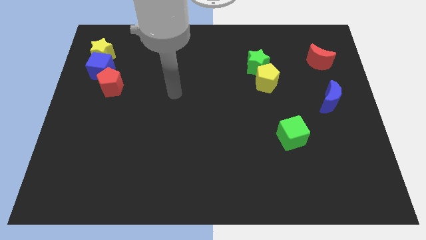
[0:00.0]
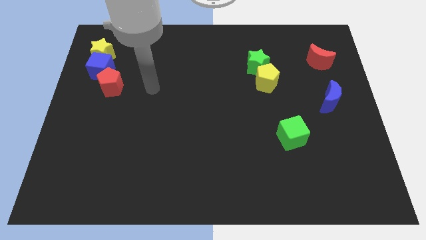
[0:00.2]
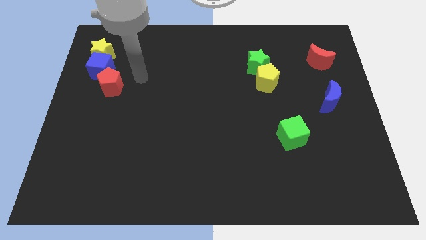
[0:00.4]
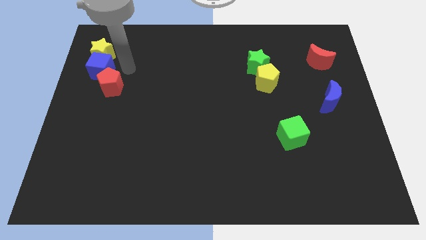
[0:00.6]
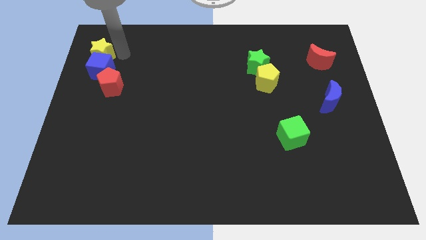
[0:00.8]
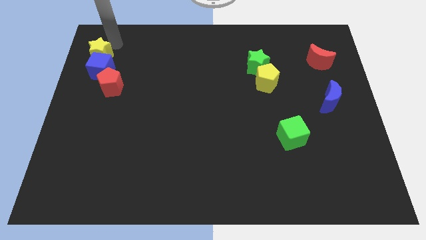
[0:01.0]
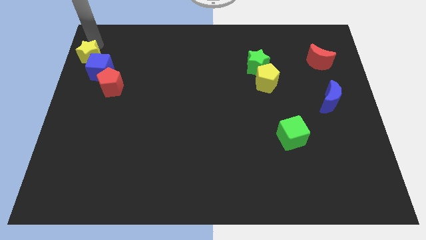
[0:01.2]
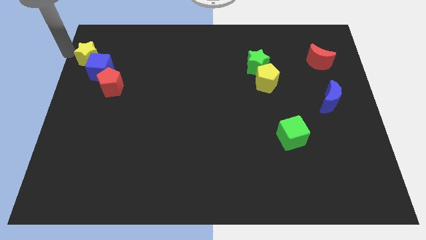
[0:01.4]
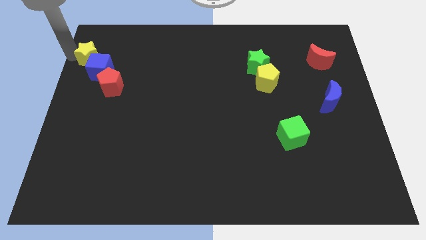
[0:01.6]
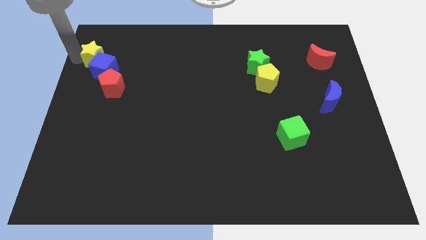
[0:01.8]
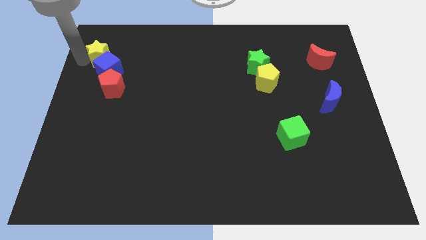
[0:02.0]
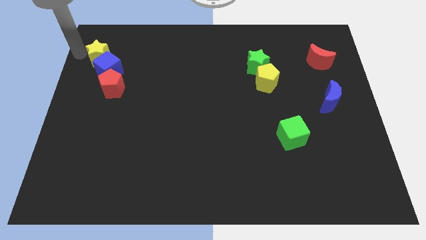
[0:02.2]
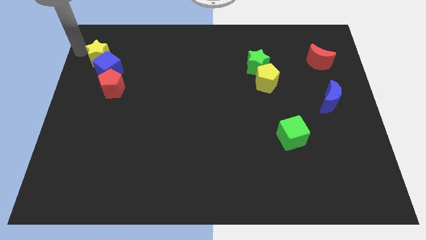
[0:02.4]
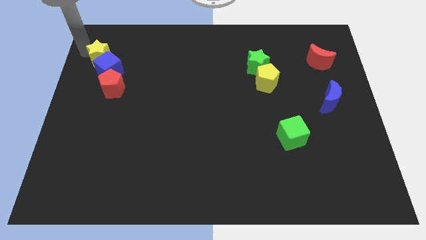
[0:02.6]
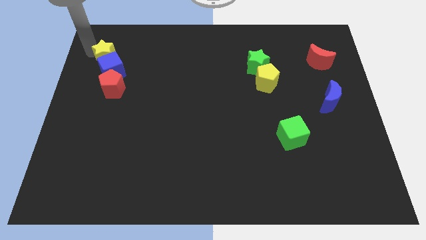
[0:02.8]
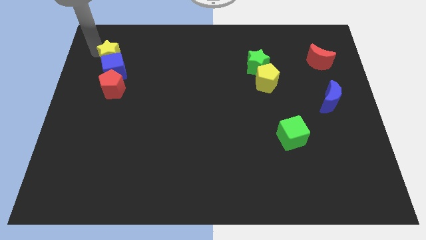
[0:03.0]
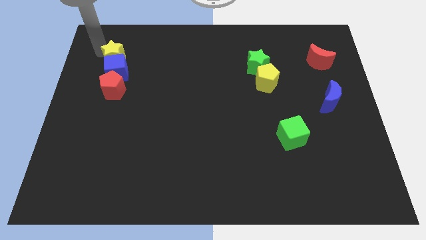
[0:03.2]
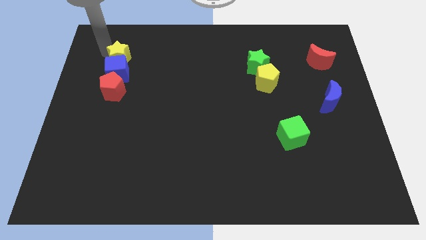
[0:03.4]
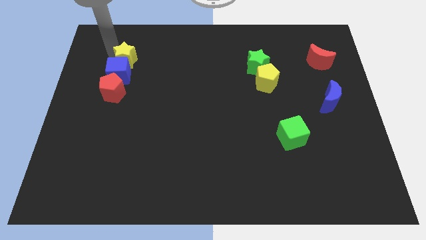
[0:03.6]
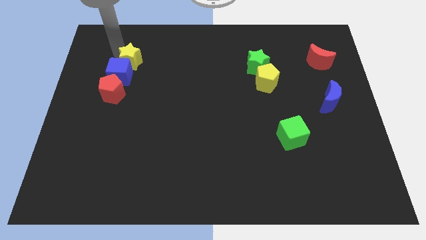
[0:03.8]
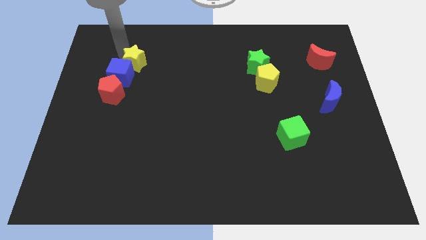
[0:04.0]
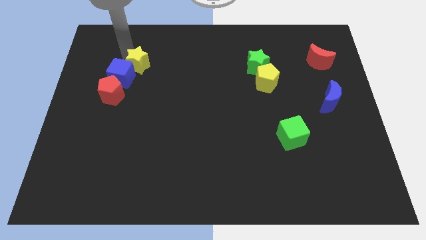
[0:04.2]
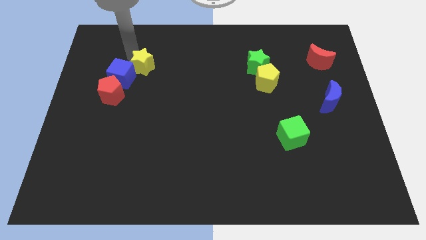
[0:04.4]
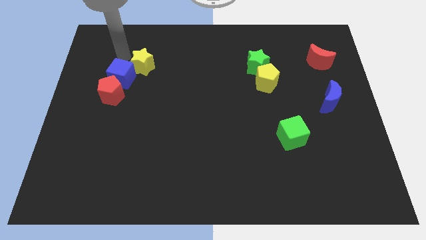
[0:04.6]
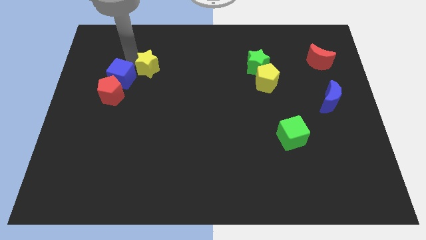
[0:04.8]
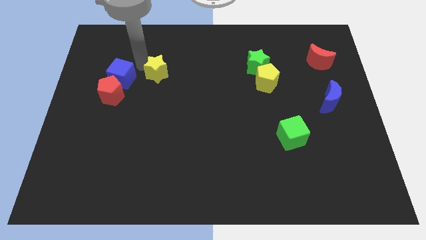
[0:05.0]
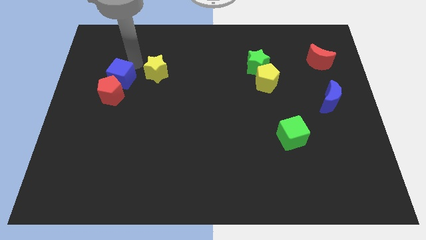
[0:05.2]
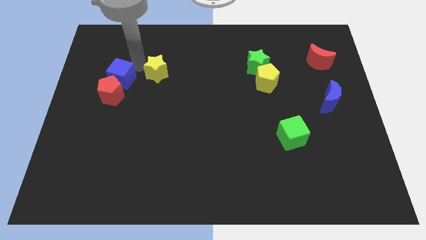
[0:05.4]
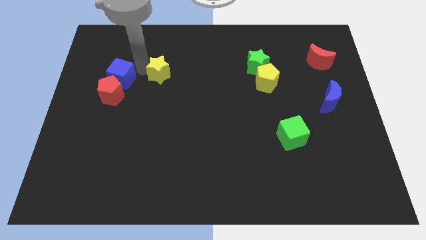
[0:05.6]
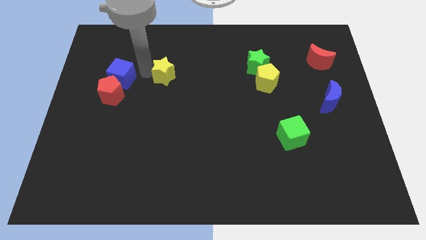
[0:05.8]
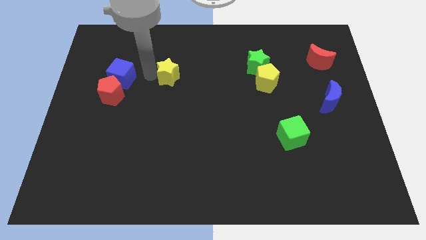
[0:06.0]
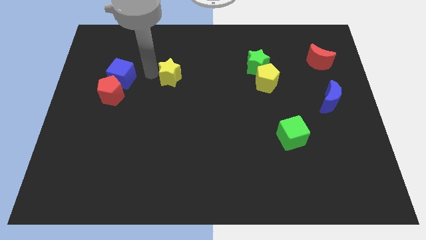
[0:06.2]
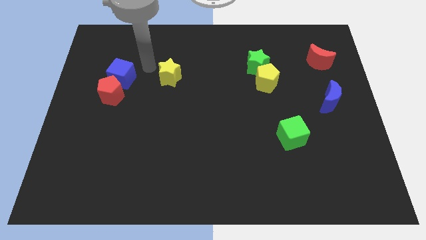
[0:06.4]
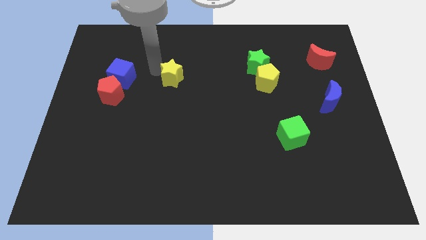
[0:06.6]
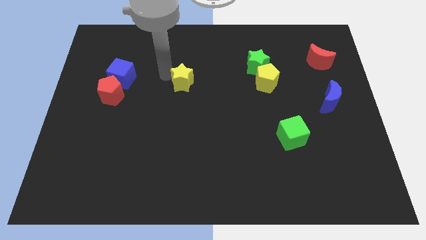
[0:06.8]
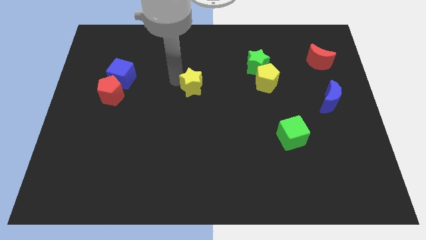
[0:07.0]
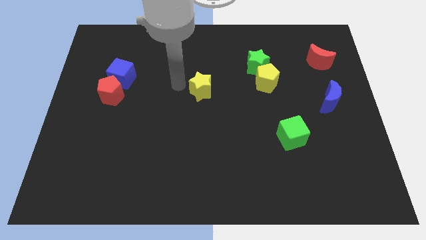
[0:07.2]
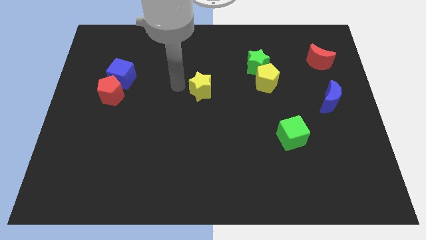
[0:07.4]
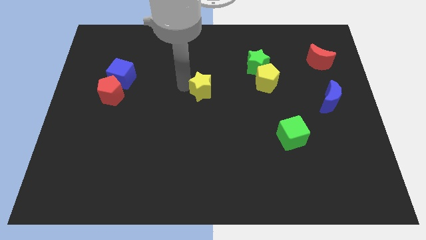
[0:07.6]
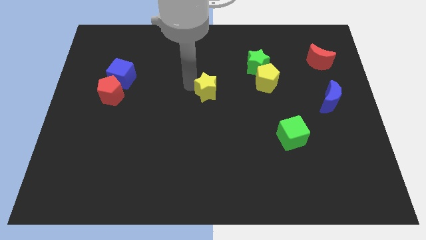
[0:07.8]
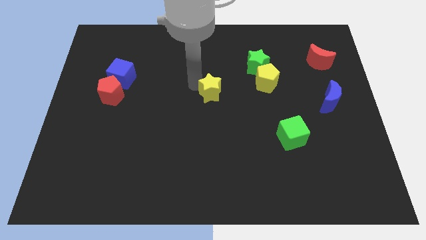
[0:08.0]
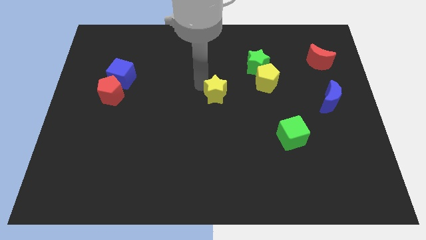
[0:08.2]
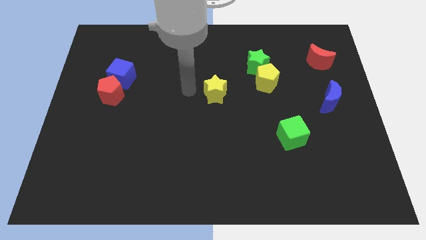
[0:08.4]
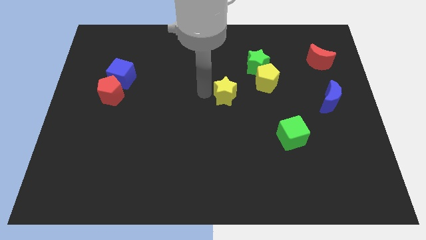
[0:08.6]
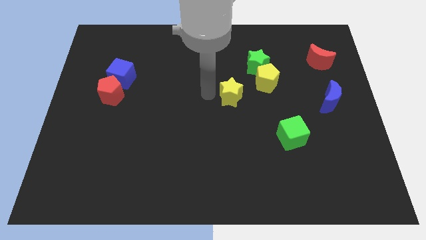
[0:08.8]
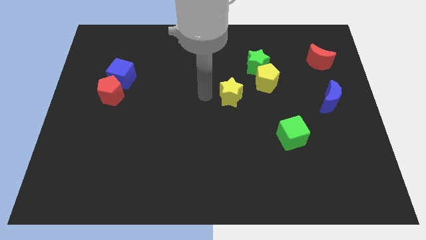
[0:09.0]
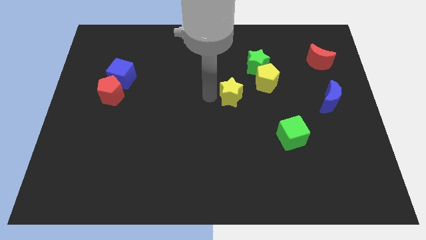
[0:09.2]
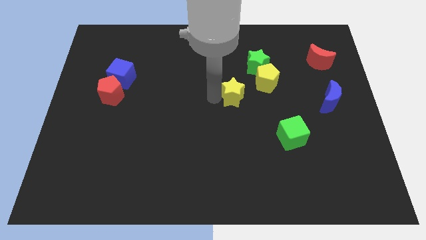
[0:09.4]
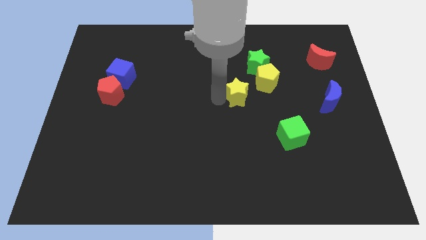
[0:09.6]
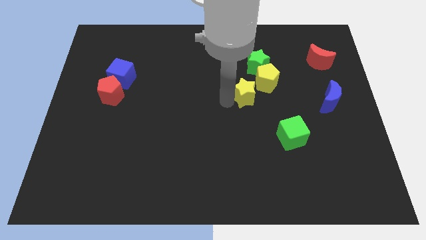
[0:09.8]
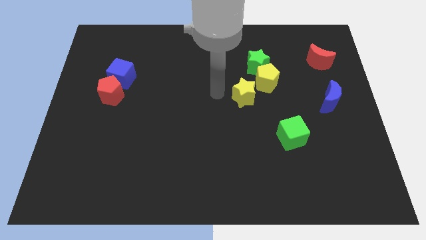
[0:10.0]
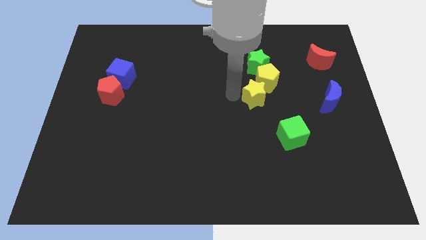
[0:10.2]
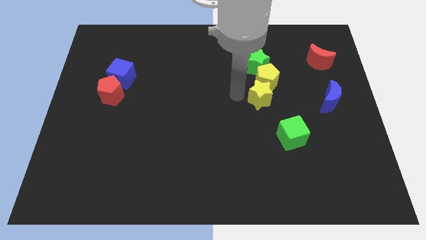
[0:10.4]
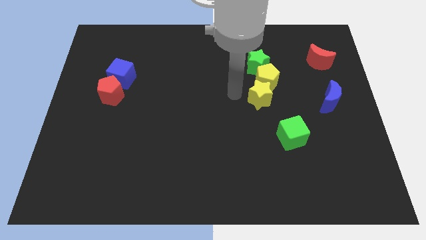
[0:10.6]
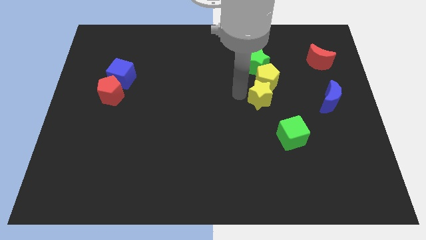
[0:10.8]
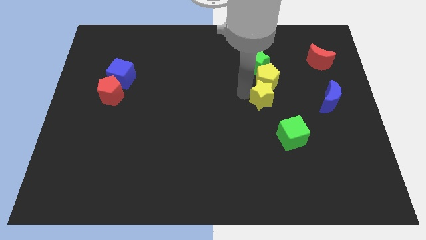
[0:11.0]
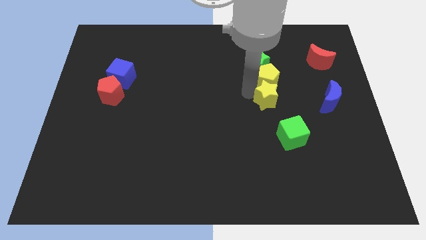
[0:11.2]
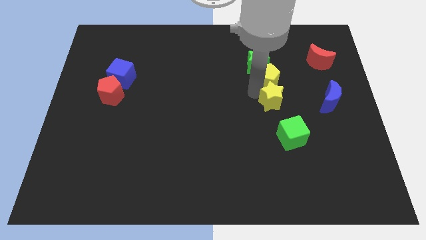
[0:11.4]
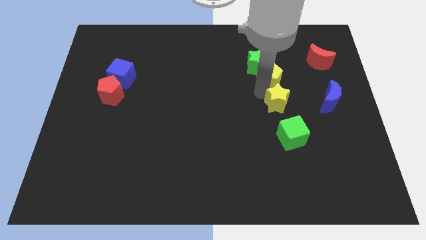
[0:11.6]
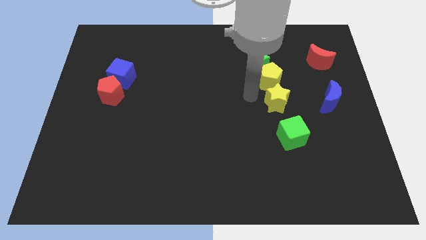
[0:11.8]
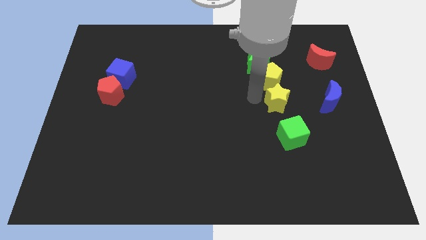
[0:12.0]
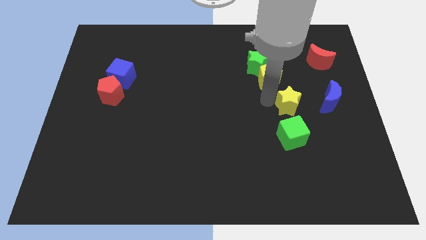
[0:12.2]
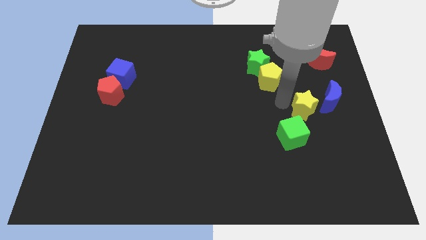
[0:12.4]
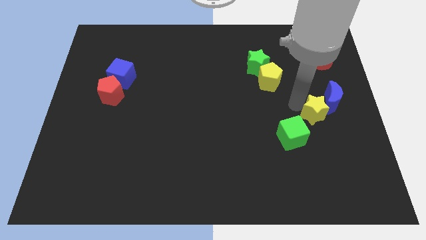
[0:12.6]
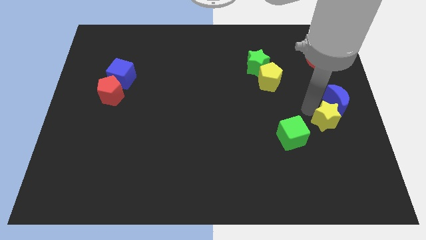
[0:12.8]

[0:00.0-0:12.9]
push the yellow star to the right of the green cube

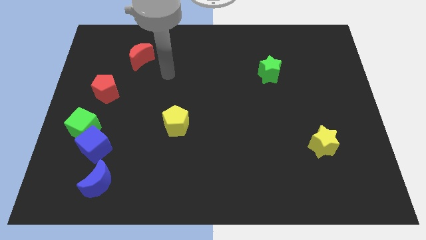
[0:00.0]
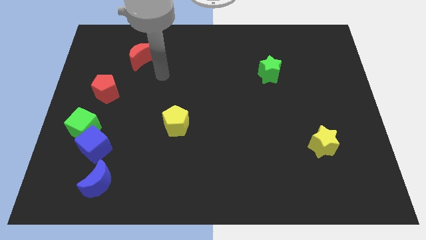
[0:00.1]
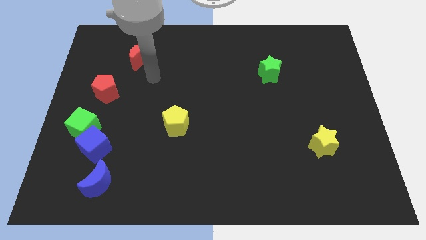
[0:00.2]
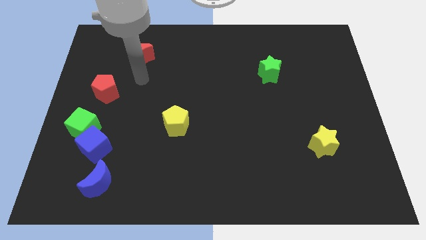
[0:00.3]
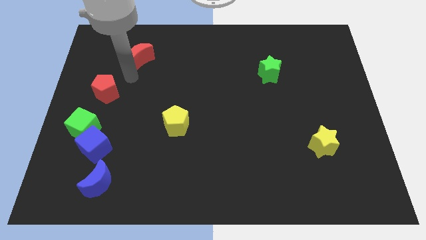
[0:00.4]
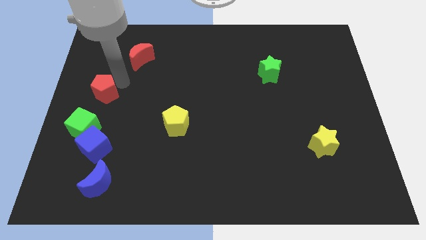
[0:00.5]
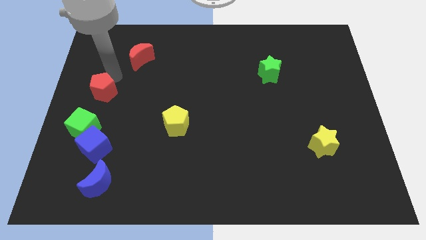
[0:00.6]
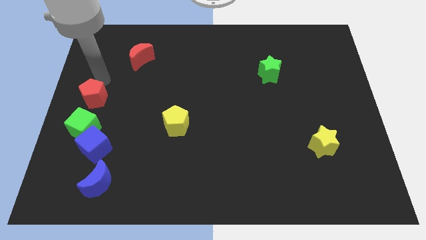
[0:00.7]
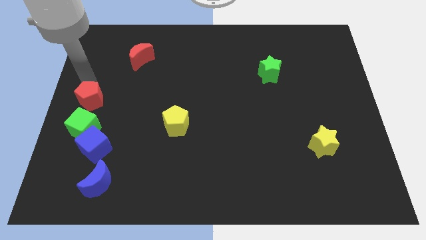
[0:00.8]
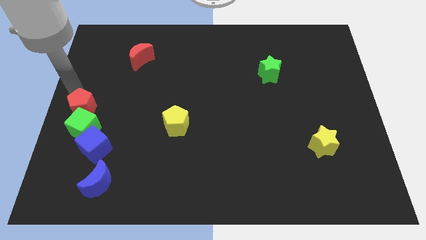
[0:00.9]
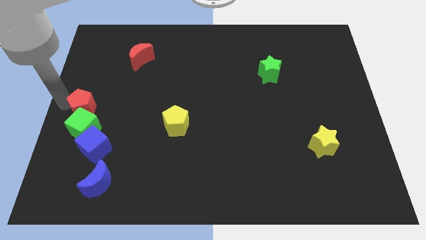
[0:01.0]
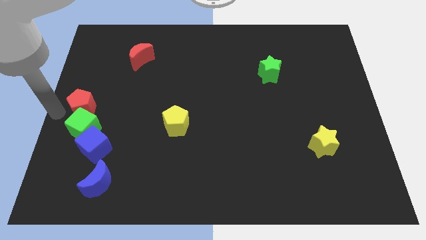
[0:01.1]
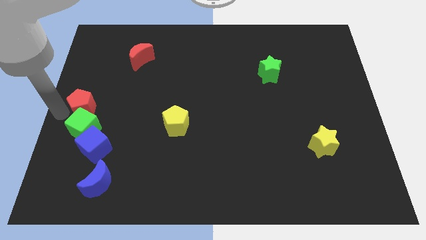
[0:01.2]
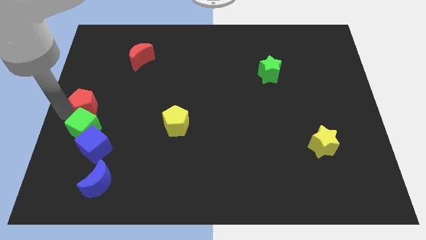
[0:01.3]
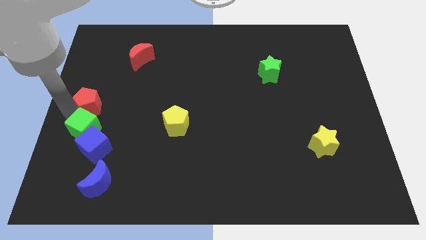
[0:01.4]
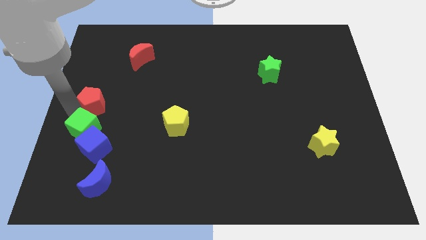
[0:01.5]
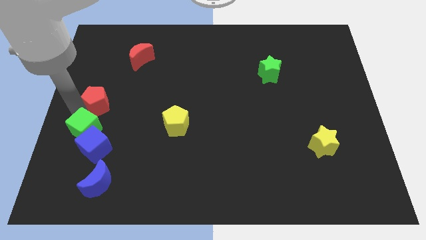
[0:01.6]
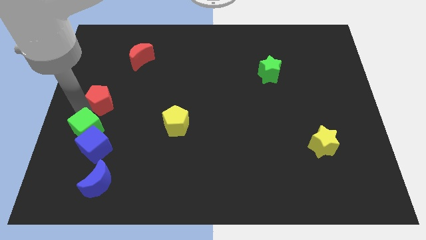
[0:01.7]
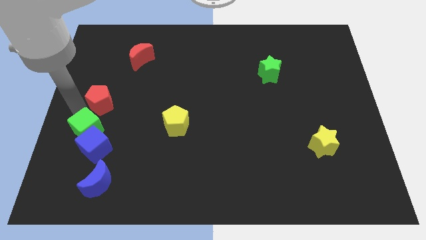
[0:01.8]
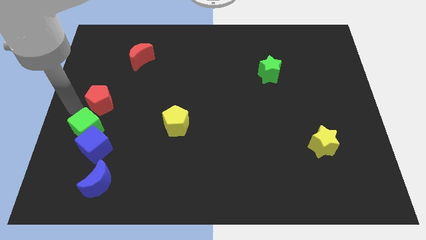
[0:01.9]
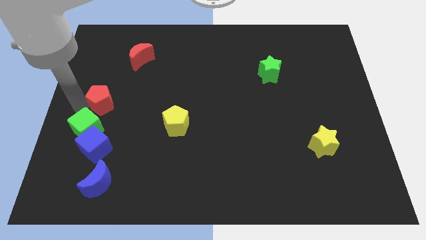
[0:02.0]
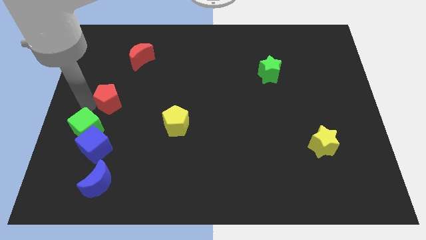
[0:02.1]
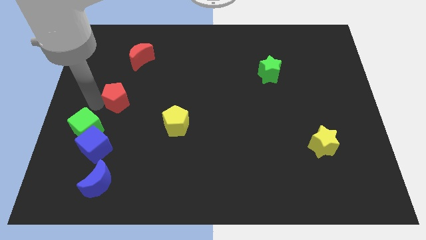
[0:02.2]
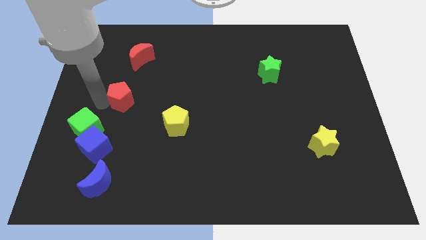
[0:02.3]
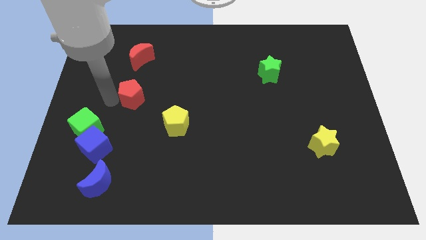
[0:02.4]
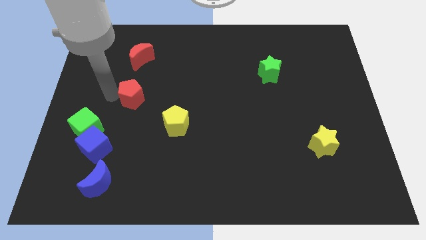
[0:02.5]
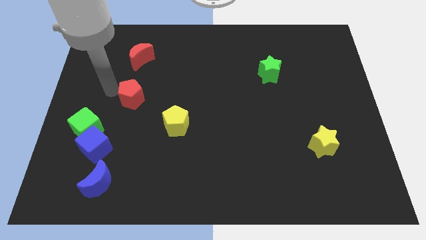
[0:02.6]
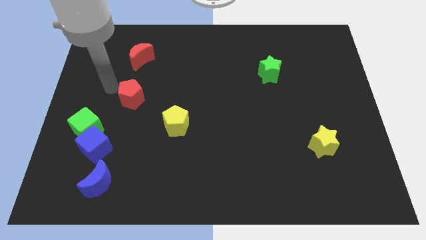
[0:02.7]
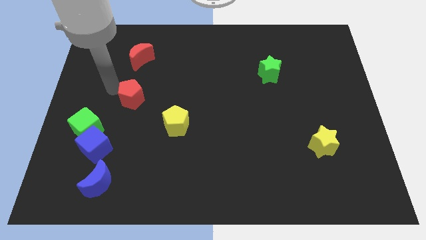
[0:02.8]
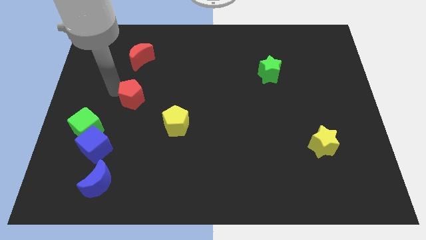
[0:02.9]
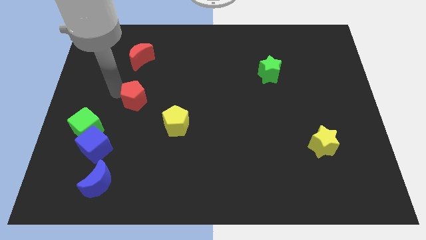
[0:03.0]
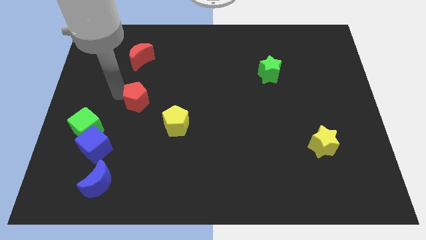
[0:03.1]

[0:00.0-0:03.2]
push the red pentagon to the top left of the yellow pentagon
